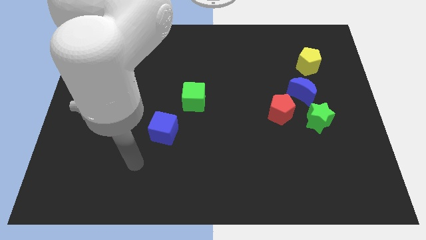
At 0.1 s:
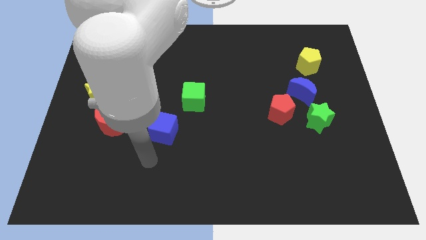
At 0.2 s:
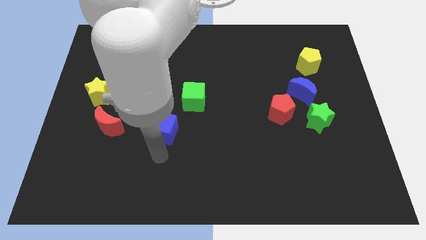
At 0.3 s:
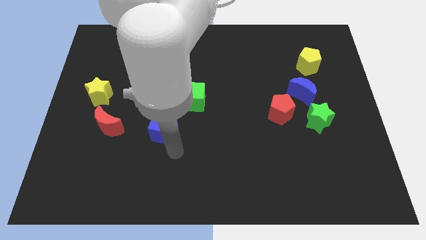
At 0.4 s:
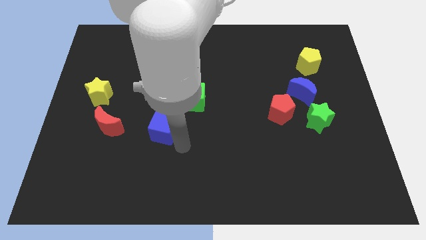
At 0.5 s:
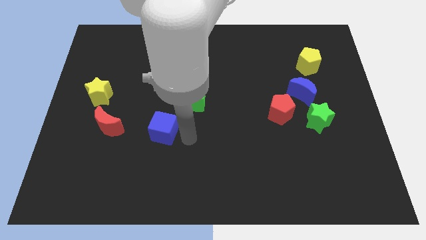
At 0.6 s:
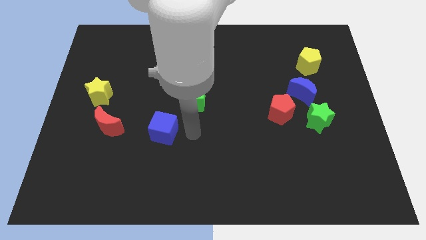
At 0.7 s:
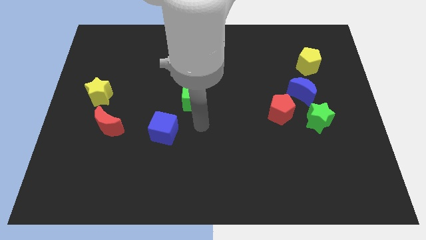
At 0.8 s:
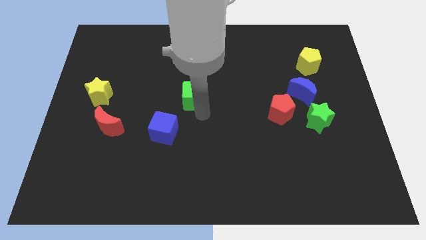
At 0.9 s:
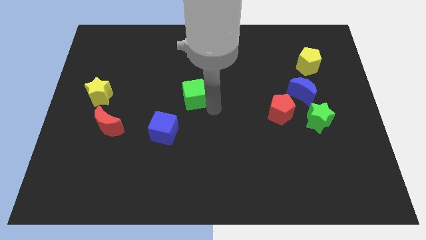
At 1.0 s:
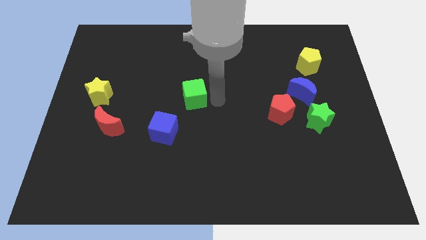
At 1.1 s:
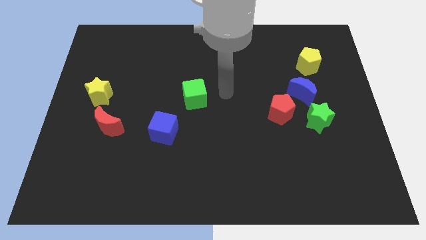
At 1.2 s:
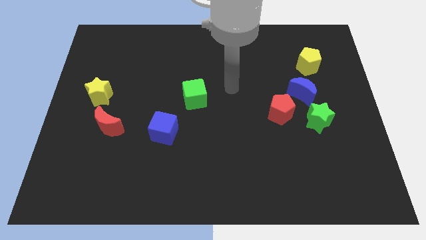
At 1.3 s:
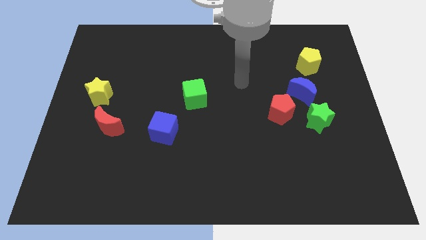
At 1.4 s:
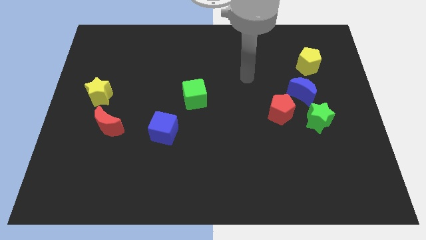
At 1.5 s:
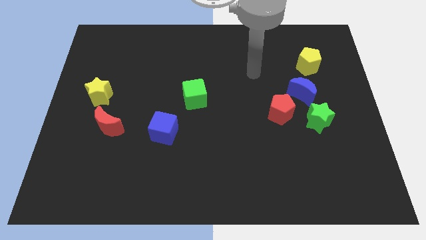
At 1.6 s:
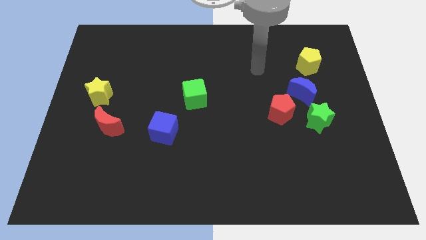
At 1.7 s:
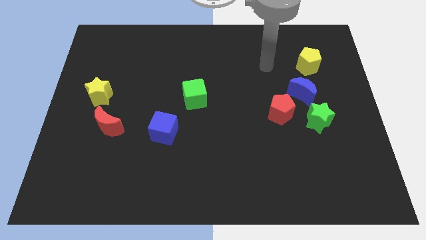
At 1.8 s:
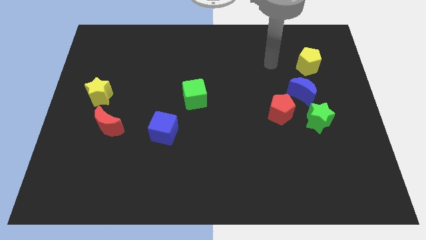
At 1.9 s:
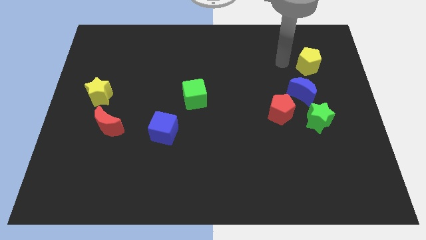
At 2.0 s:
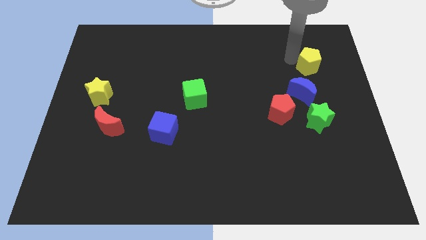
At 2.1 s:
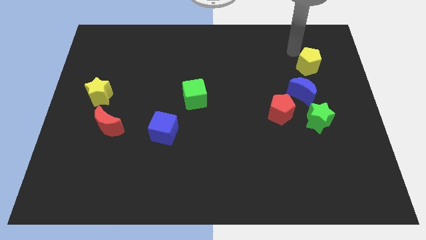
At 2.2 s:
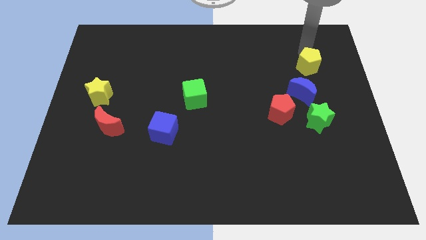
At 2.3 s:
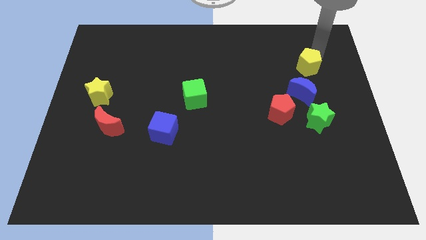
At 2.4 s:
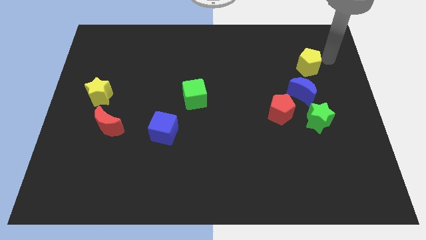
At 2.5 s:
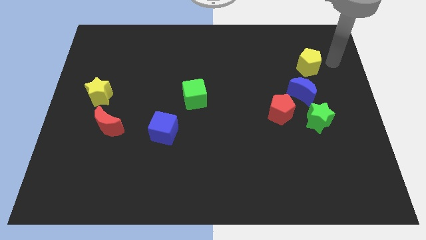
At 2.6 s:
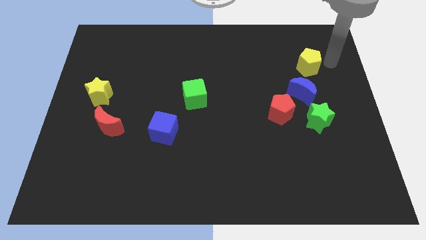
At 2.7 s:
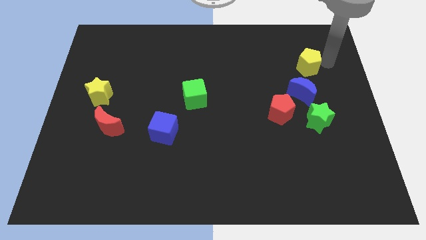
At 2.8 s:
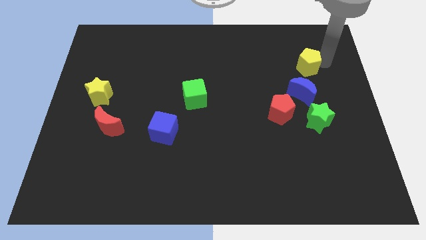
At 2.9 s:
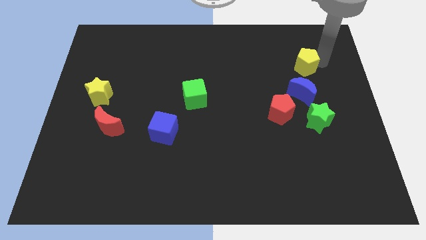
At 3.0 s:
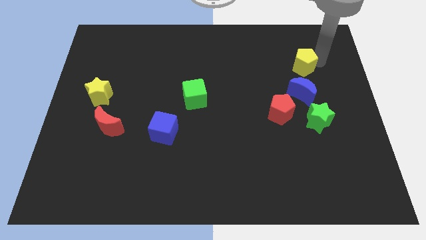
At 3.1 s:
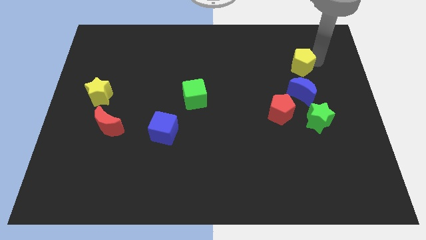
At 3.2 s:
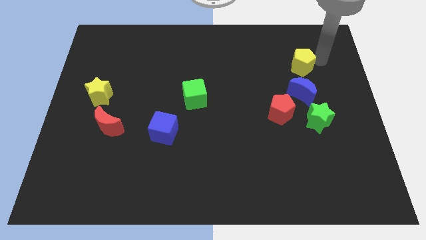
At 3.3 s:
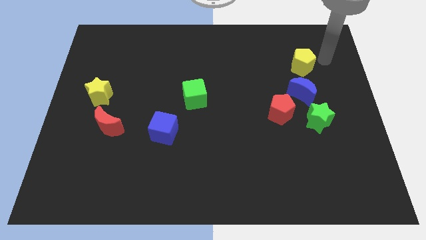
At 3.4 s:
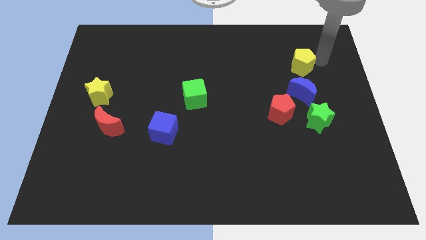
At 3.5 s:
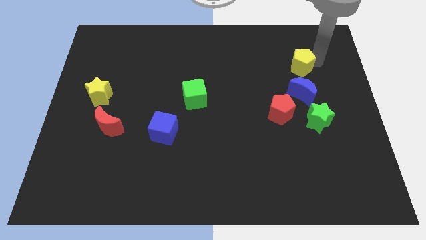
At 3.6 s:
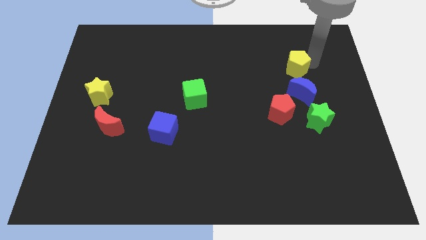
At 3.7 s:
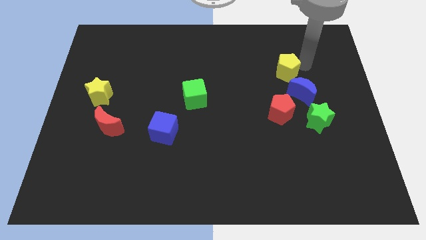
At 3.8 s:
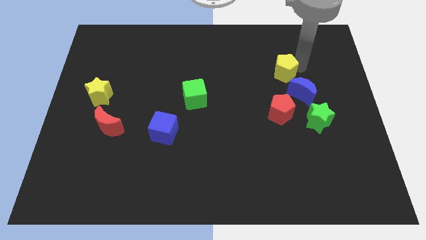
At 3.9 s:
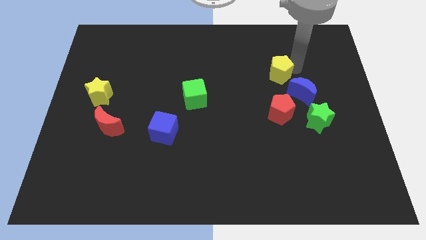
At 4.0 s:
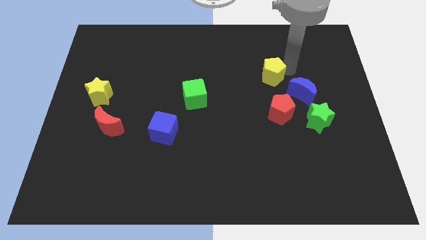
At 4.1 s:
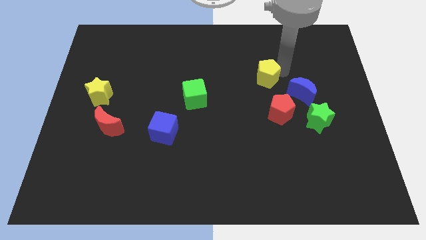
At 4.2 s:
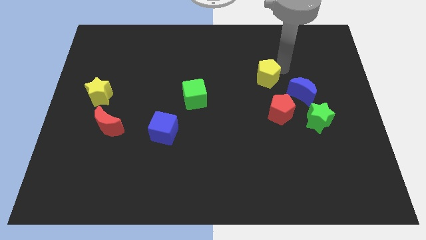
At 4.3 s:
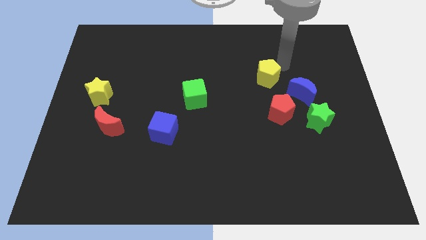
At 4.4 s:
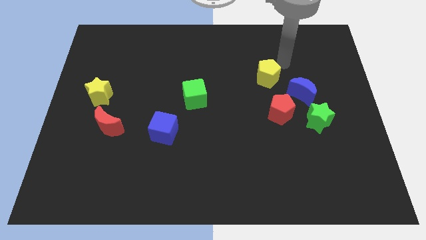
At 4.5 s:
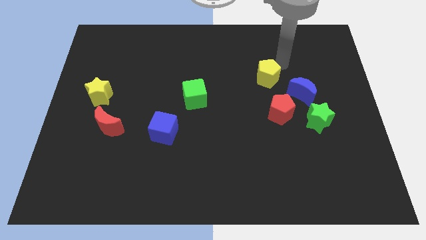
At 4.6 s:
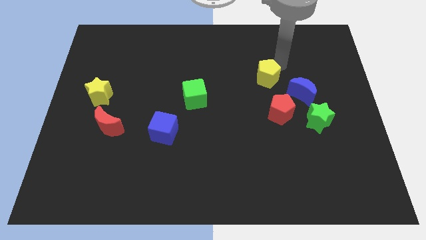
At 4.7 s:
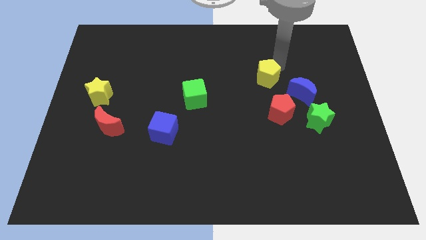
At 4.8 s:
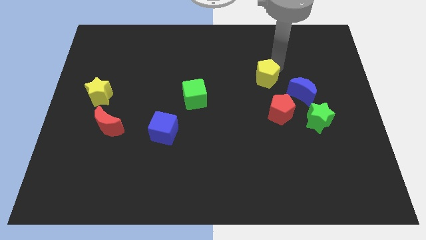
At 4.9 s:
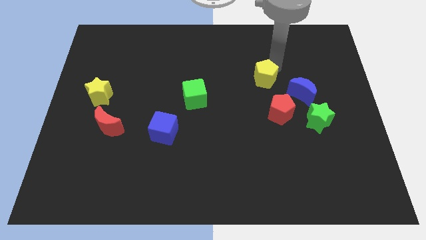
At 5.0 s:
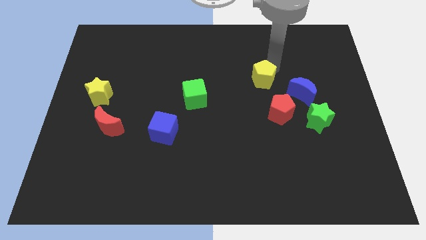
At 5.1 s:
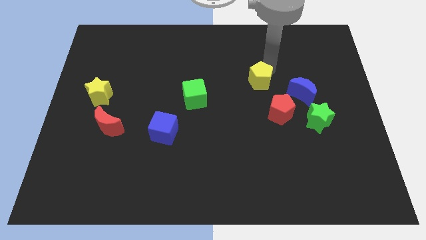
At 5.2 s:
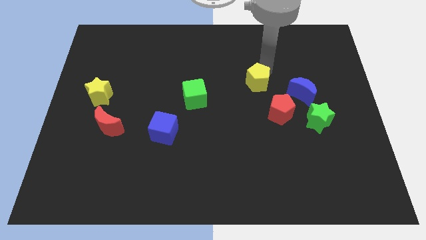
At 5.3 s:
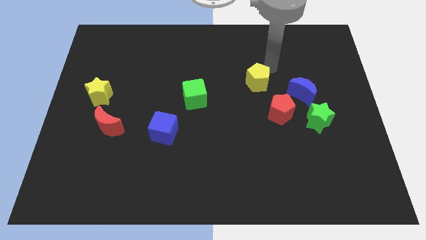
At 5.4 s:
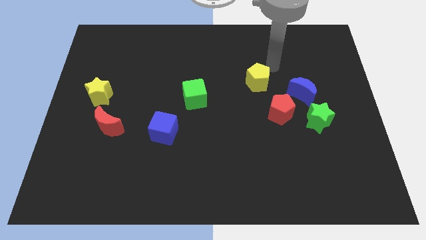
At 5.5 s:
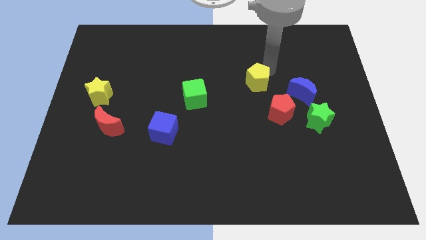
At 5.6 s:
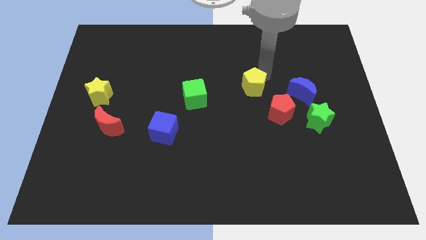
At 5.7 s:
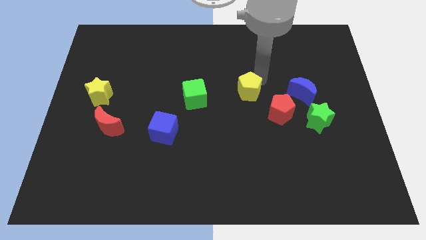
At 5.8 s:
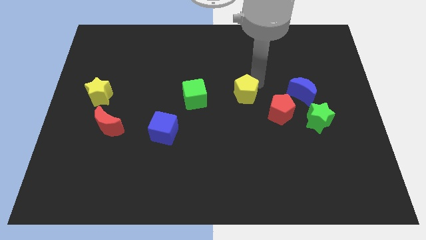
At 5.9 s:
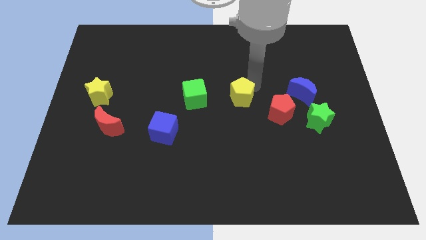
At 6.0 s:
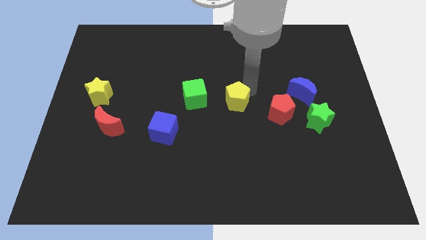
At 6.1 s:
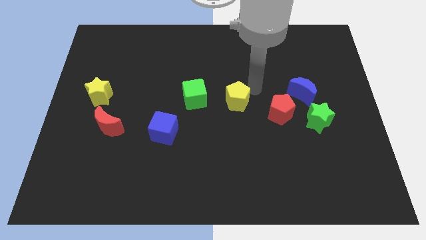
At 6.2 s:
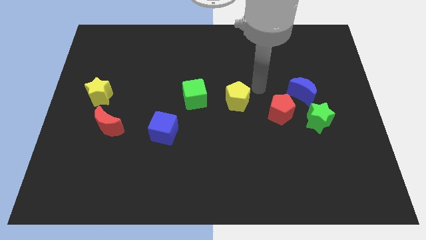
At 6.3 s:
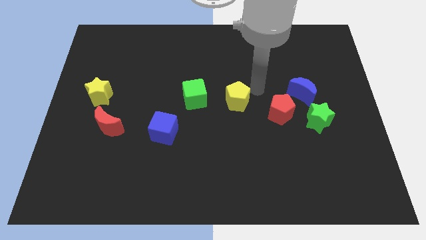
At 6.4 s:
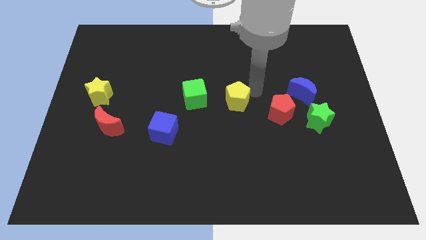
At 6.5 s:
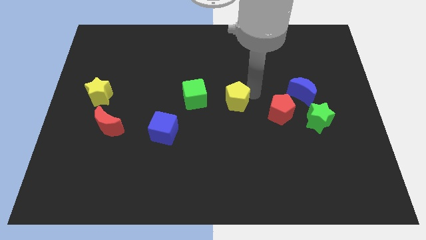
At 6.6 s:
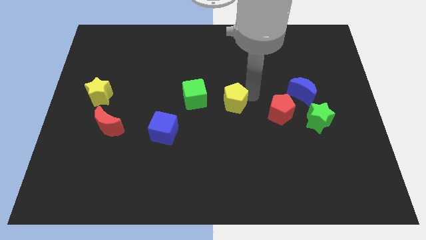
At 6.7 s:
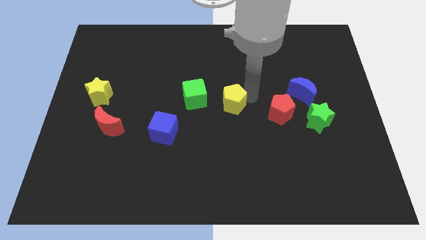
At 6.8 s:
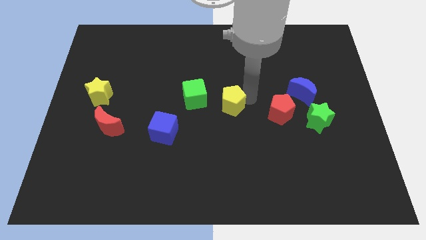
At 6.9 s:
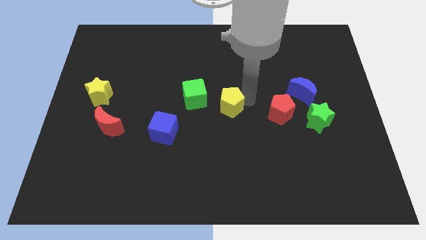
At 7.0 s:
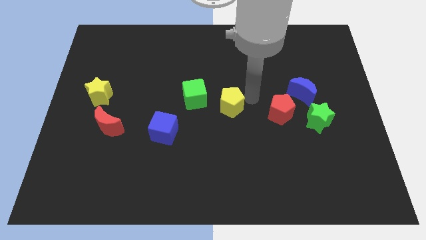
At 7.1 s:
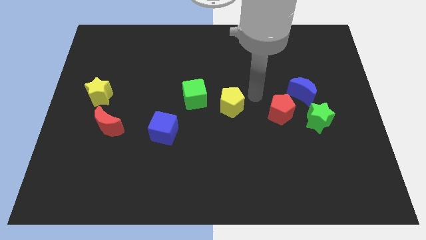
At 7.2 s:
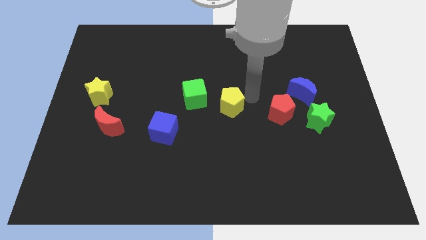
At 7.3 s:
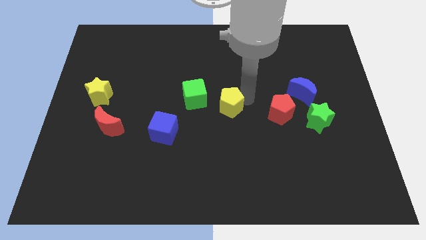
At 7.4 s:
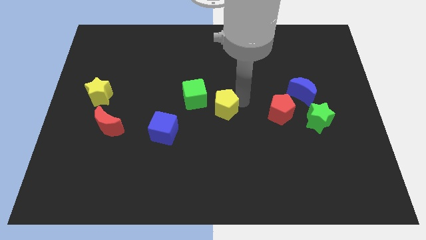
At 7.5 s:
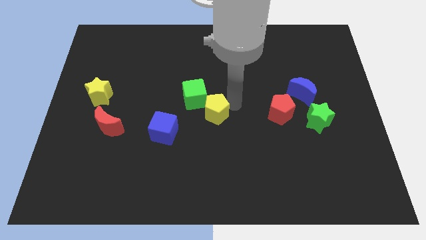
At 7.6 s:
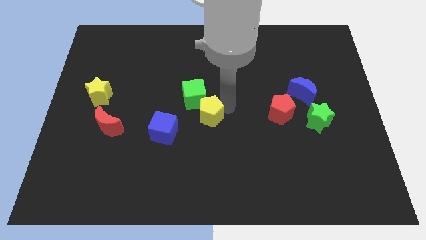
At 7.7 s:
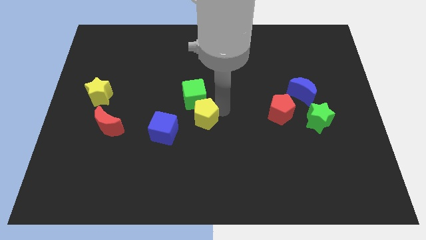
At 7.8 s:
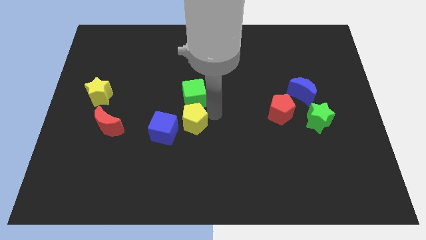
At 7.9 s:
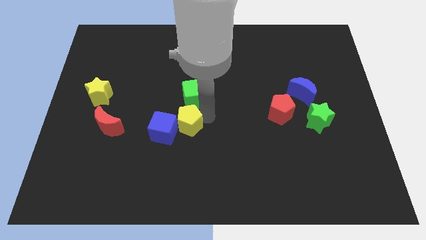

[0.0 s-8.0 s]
move the yellow pentagon close to the blue cube

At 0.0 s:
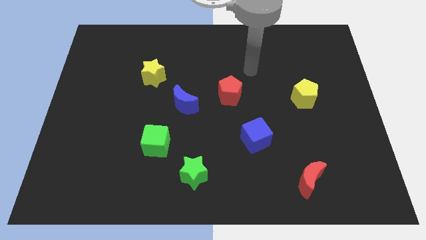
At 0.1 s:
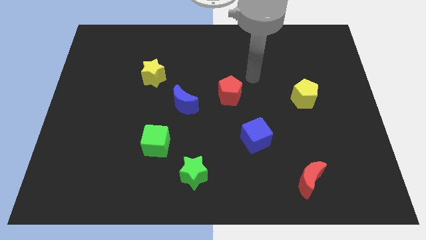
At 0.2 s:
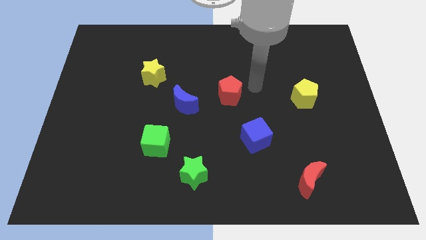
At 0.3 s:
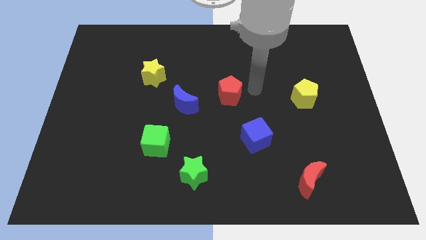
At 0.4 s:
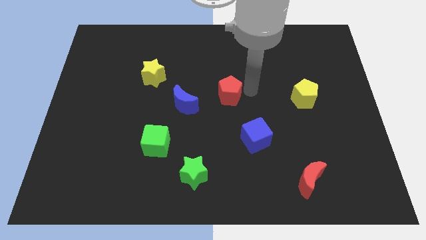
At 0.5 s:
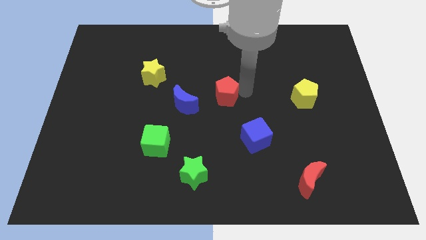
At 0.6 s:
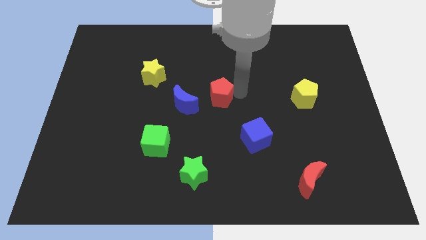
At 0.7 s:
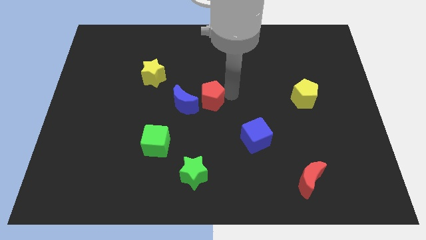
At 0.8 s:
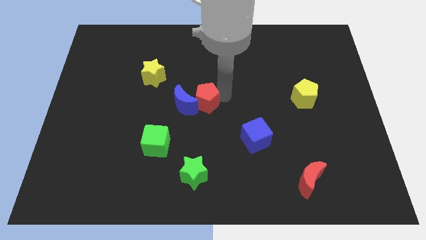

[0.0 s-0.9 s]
move the red pentagon towards the blue moon
